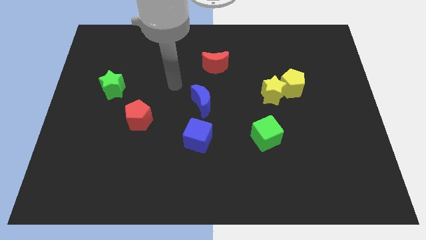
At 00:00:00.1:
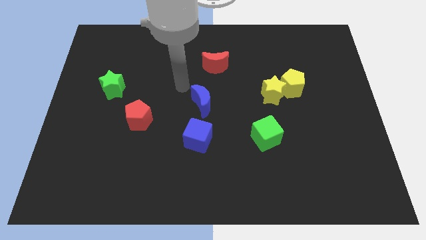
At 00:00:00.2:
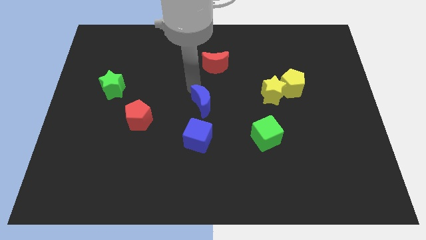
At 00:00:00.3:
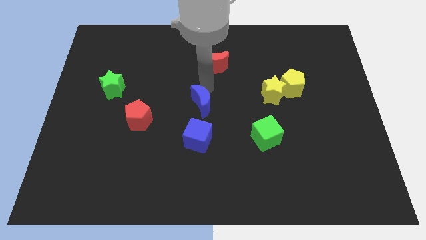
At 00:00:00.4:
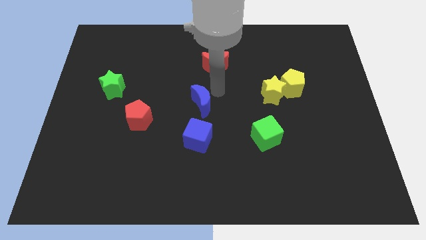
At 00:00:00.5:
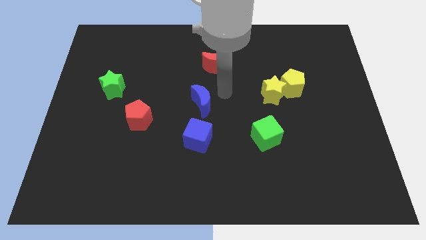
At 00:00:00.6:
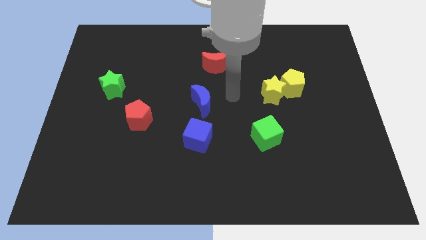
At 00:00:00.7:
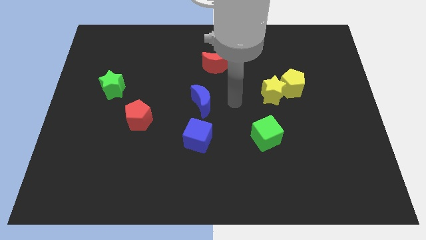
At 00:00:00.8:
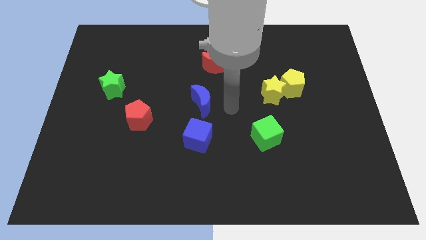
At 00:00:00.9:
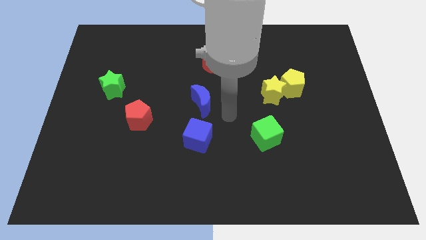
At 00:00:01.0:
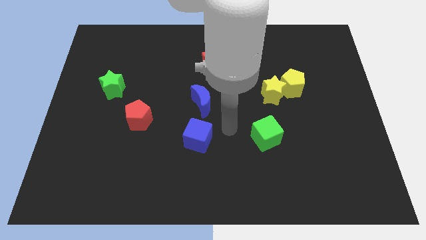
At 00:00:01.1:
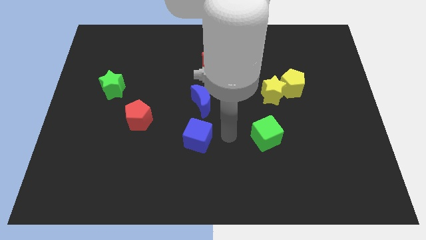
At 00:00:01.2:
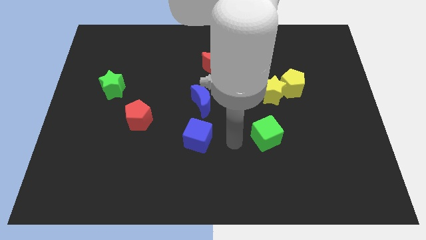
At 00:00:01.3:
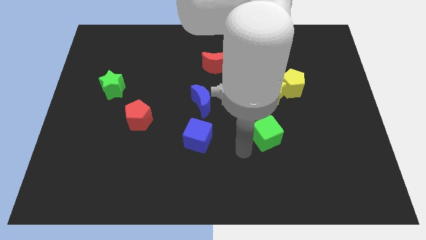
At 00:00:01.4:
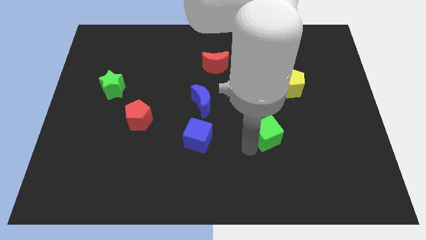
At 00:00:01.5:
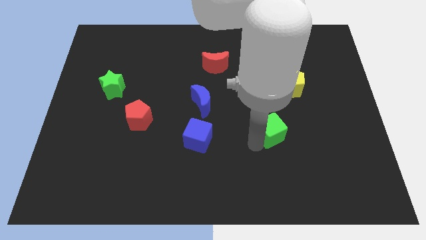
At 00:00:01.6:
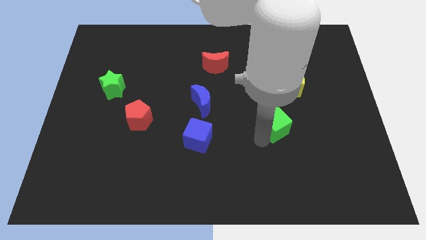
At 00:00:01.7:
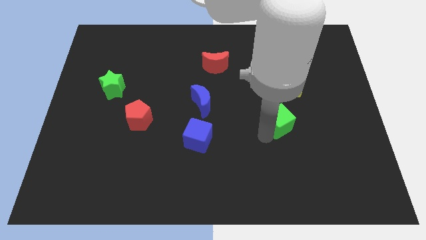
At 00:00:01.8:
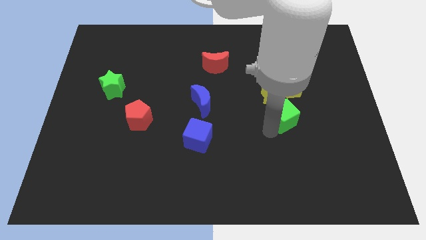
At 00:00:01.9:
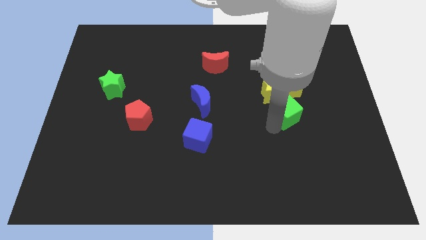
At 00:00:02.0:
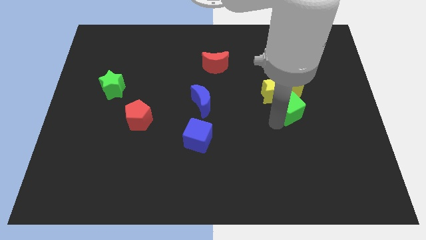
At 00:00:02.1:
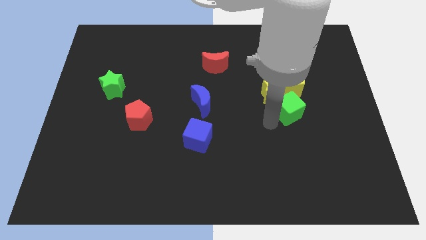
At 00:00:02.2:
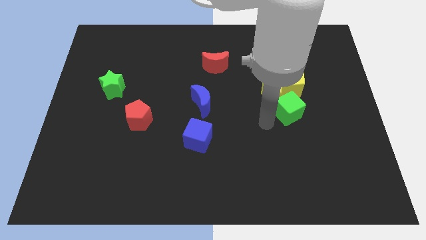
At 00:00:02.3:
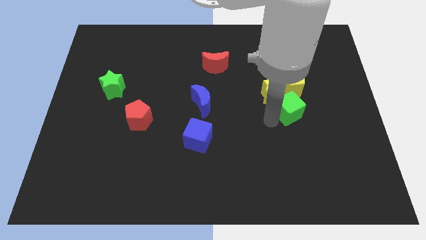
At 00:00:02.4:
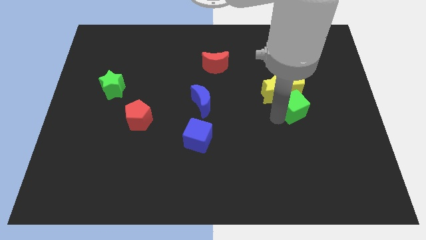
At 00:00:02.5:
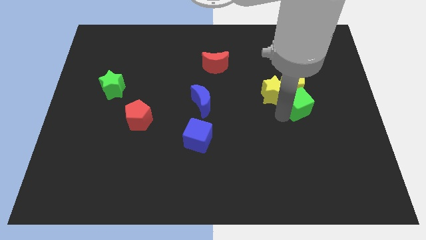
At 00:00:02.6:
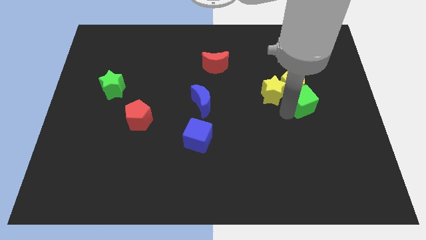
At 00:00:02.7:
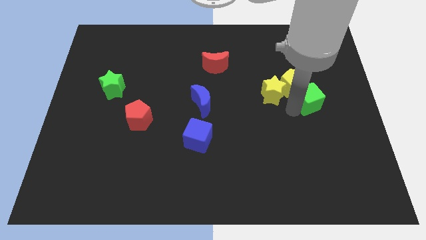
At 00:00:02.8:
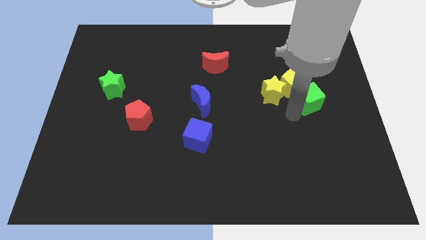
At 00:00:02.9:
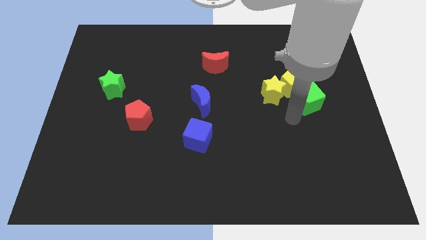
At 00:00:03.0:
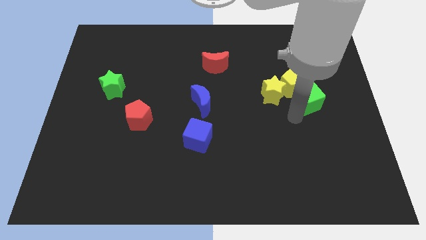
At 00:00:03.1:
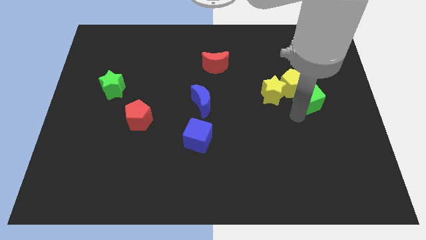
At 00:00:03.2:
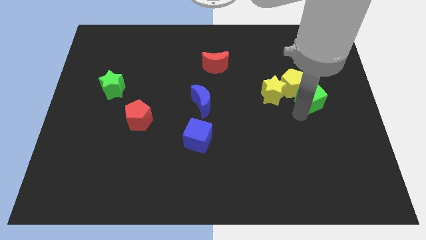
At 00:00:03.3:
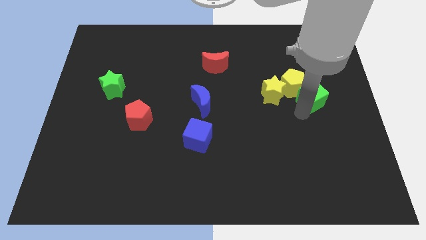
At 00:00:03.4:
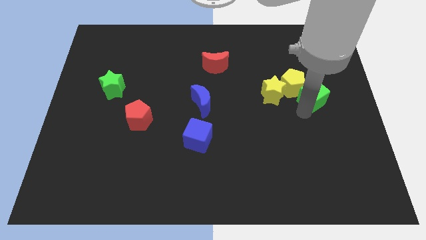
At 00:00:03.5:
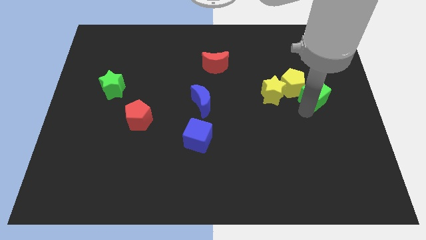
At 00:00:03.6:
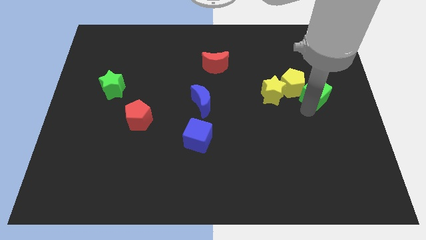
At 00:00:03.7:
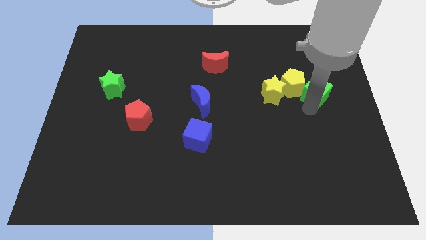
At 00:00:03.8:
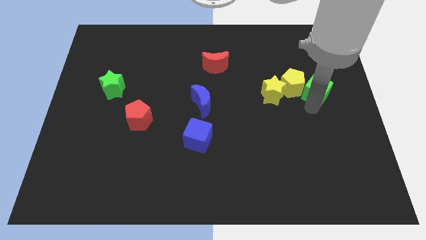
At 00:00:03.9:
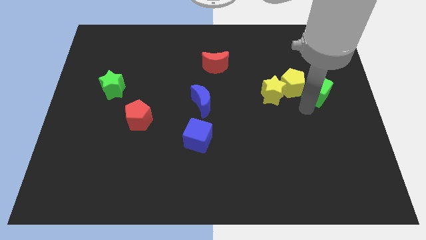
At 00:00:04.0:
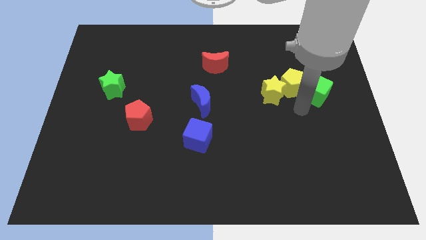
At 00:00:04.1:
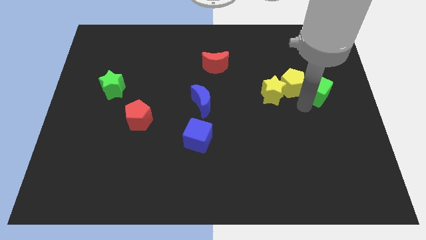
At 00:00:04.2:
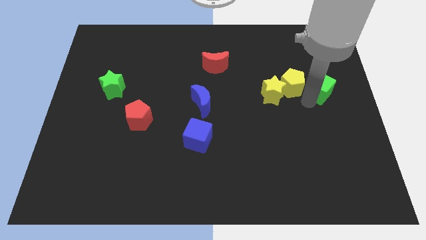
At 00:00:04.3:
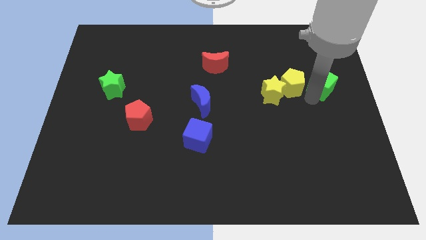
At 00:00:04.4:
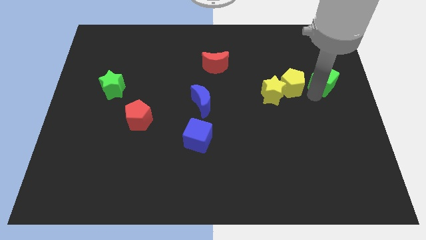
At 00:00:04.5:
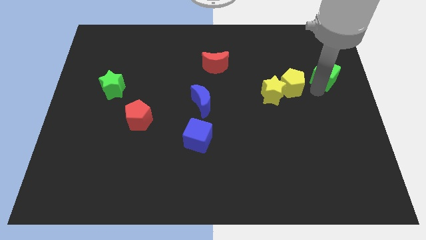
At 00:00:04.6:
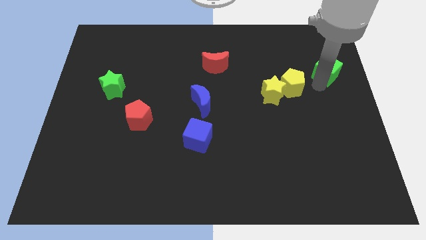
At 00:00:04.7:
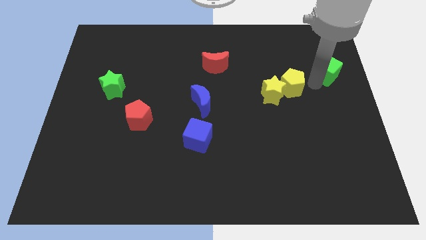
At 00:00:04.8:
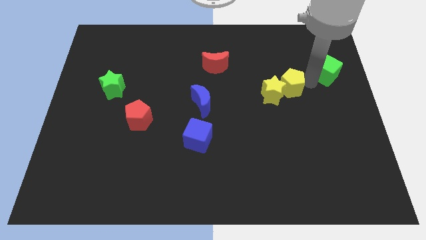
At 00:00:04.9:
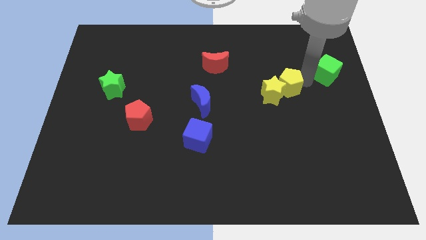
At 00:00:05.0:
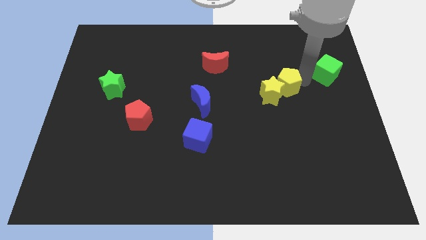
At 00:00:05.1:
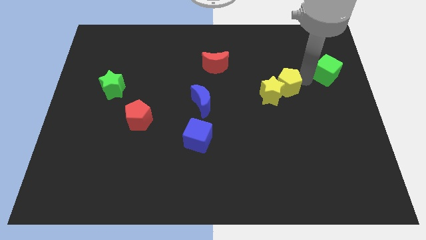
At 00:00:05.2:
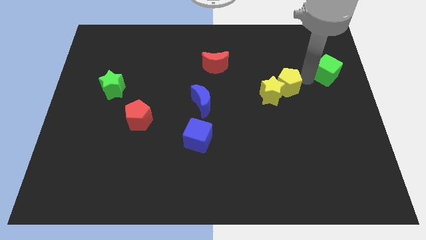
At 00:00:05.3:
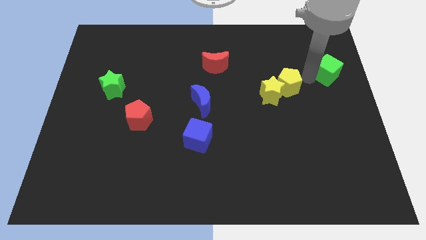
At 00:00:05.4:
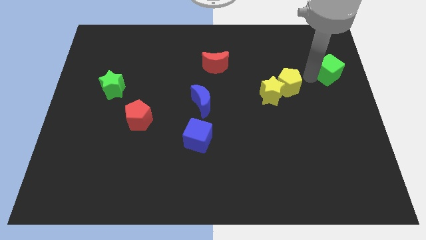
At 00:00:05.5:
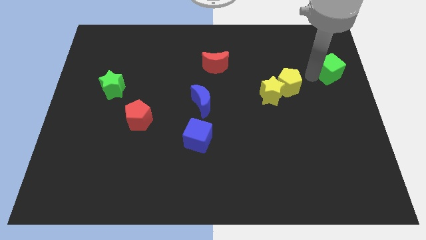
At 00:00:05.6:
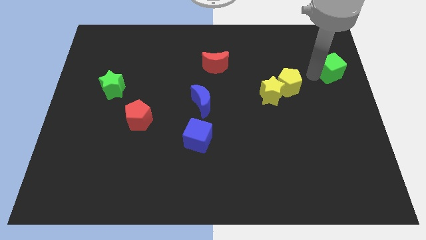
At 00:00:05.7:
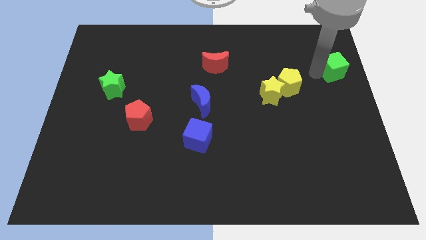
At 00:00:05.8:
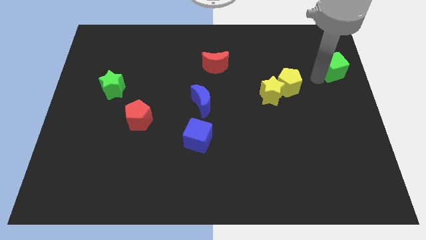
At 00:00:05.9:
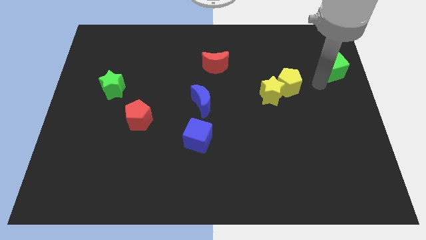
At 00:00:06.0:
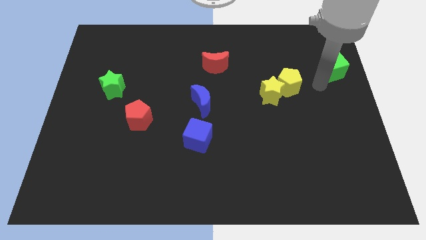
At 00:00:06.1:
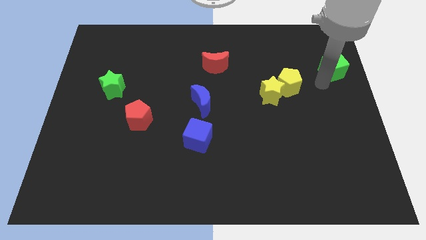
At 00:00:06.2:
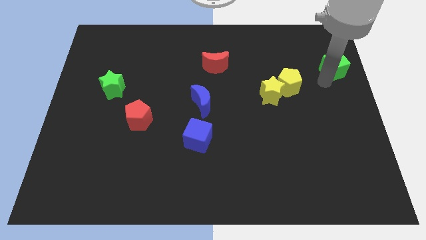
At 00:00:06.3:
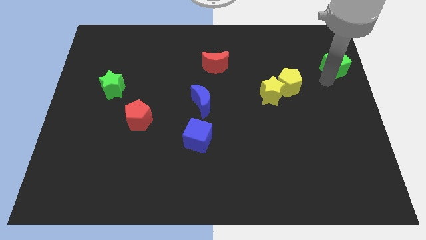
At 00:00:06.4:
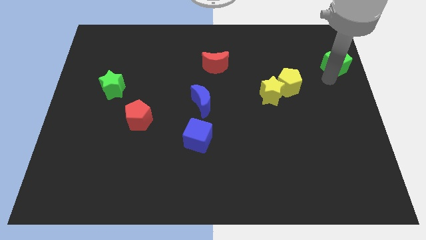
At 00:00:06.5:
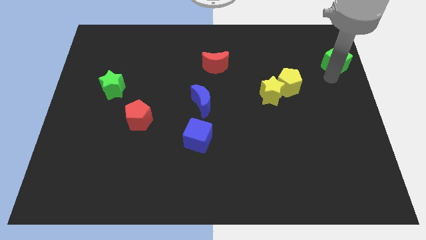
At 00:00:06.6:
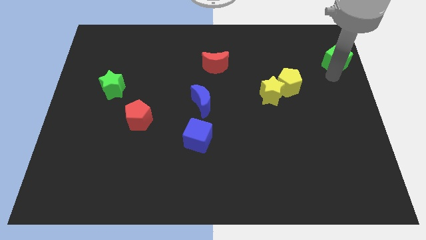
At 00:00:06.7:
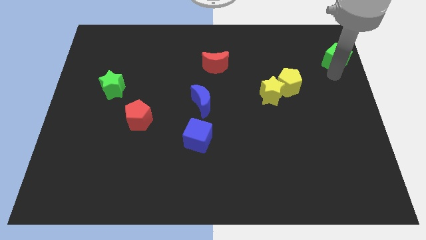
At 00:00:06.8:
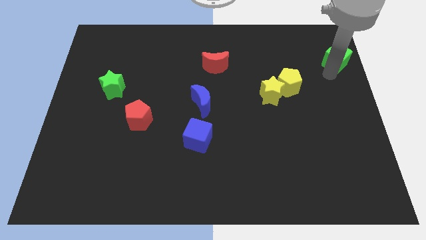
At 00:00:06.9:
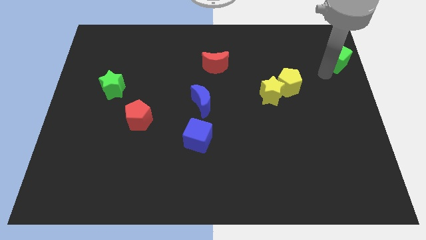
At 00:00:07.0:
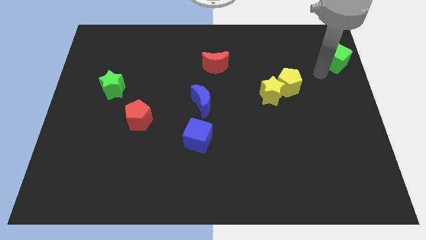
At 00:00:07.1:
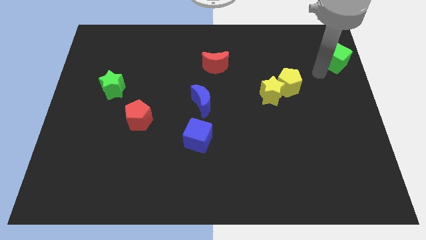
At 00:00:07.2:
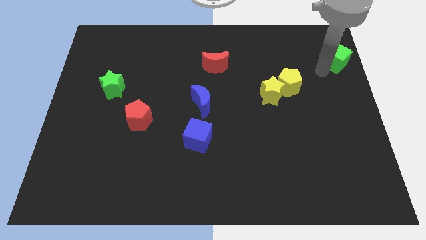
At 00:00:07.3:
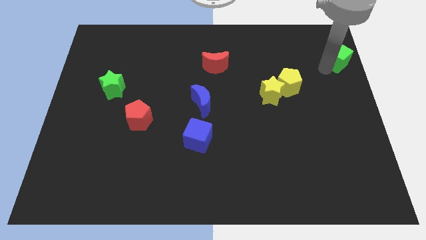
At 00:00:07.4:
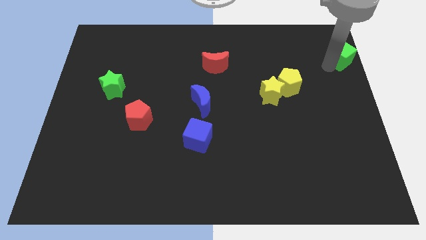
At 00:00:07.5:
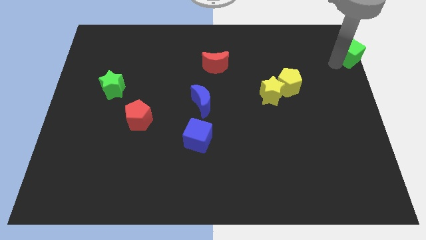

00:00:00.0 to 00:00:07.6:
put the green cube to the top right
